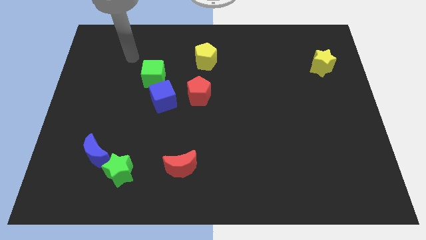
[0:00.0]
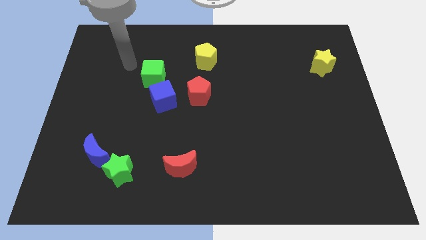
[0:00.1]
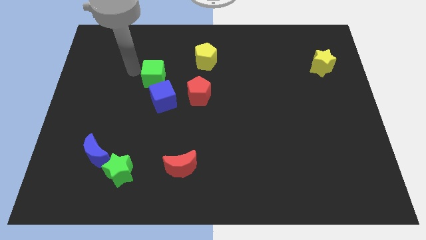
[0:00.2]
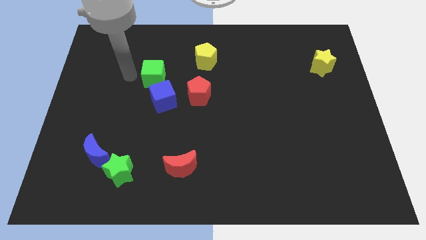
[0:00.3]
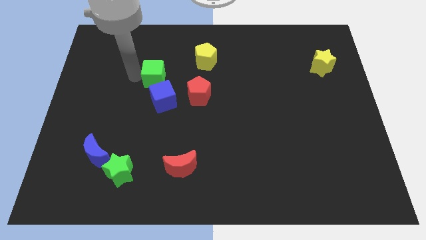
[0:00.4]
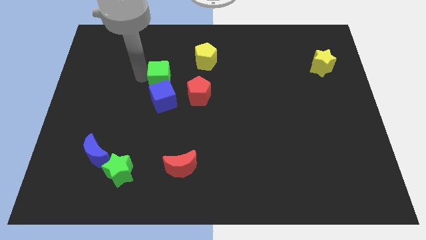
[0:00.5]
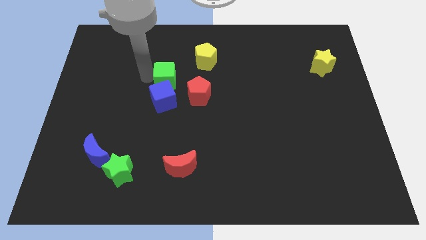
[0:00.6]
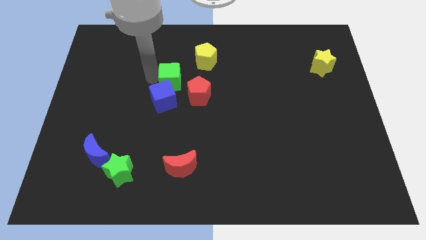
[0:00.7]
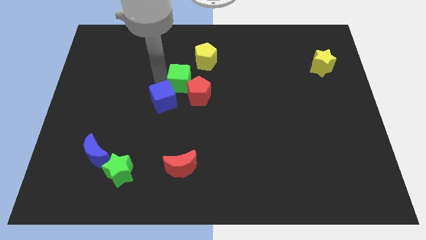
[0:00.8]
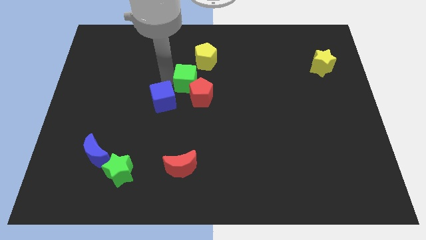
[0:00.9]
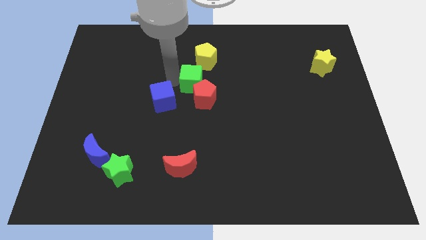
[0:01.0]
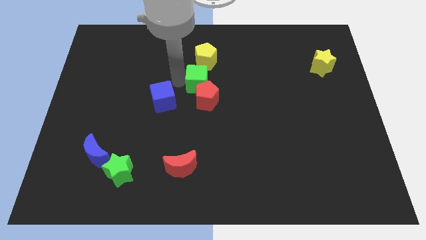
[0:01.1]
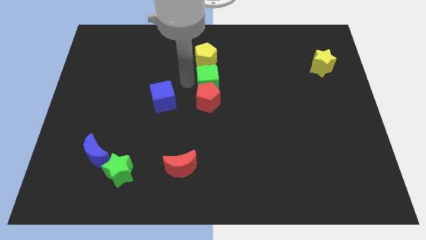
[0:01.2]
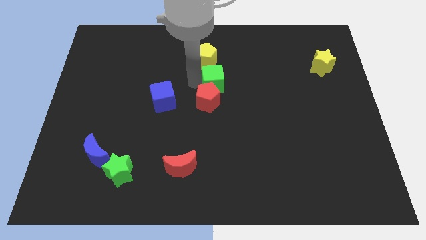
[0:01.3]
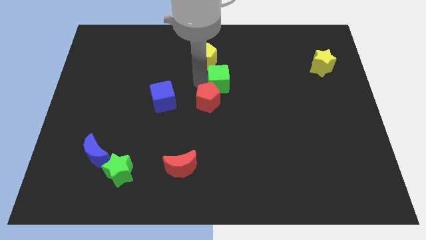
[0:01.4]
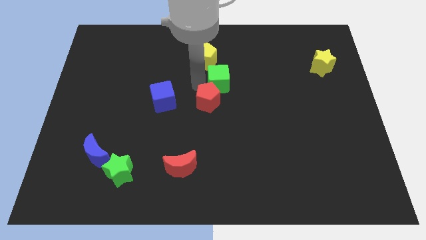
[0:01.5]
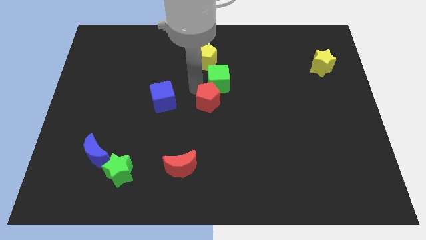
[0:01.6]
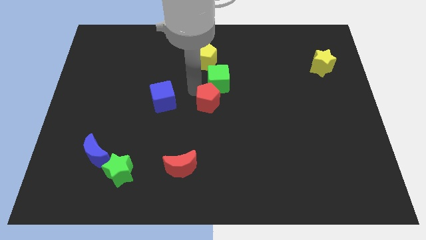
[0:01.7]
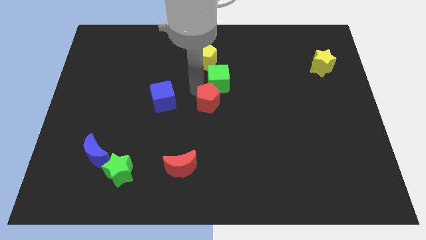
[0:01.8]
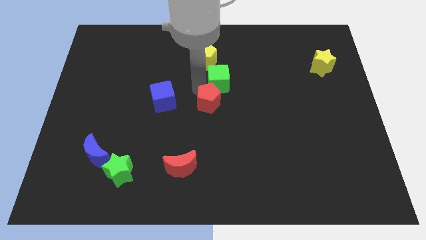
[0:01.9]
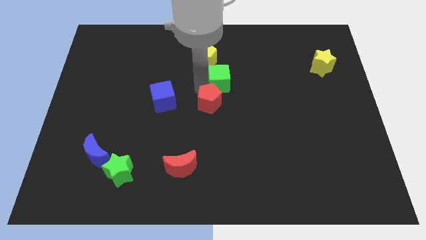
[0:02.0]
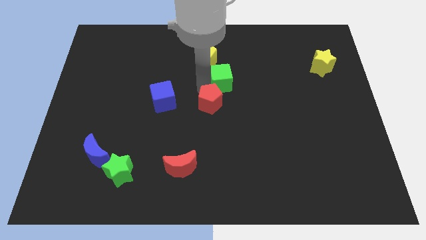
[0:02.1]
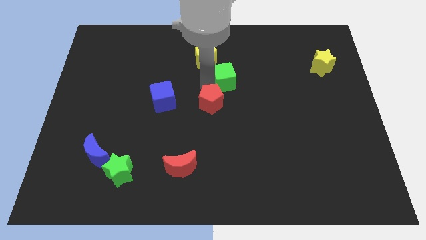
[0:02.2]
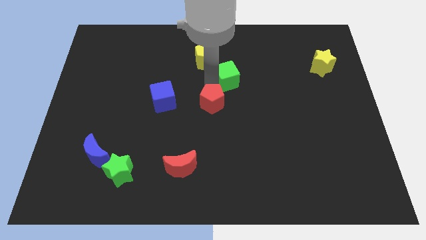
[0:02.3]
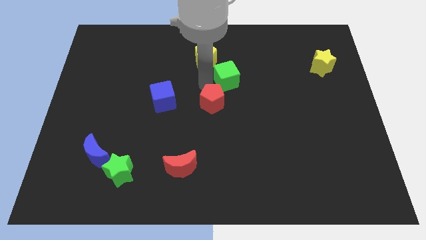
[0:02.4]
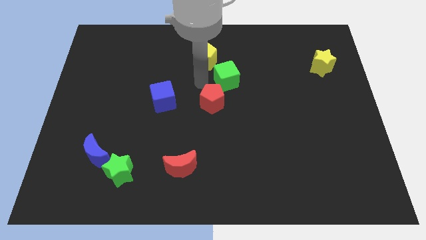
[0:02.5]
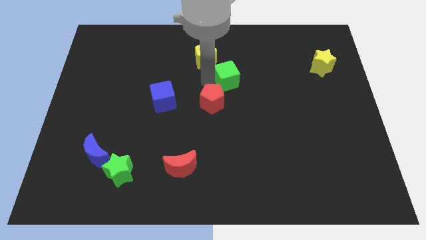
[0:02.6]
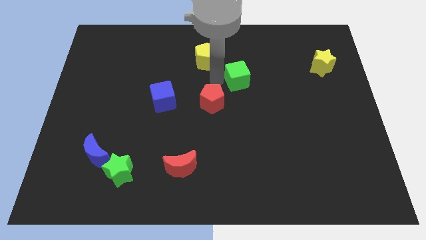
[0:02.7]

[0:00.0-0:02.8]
push the green cube right

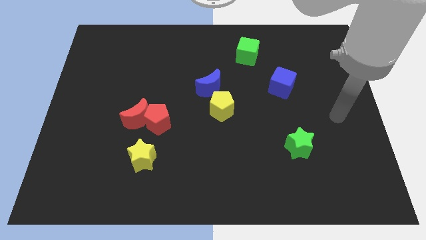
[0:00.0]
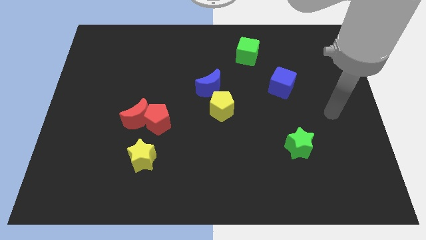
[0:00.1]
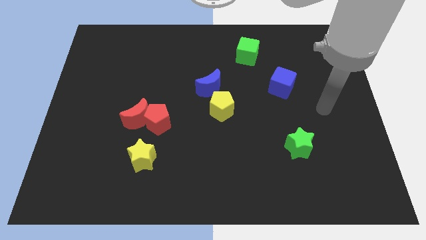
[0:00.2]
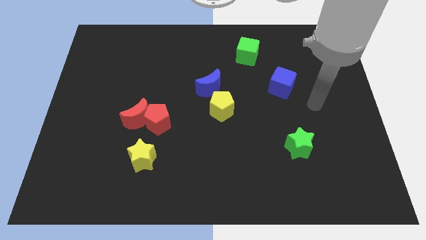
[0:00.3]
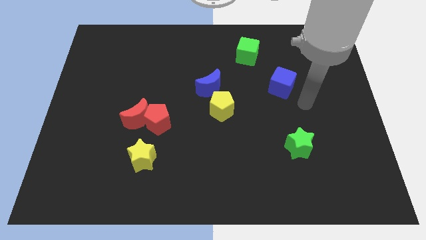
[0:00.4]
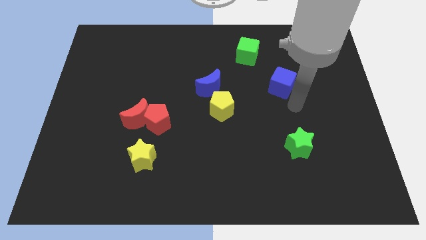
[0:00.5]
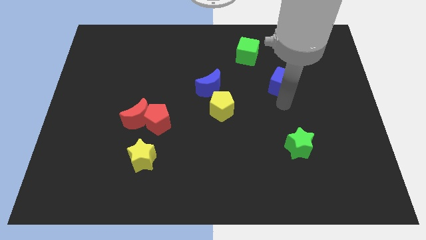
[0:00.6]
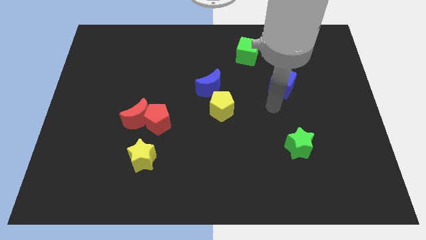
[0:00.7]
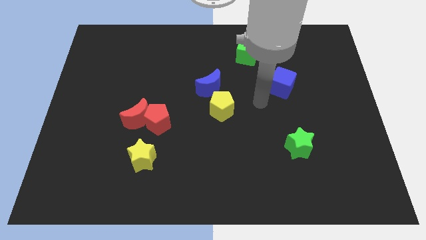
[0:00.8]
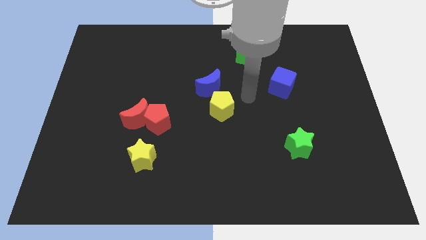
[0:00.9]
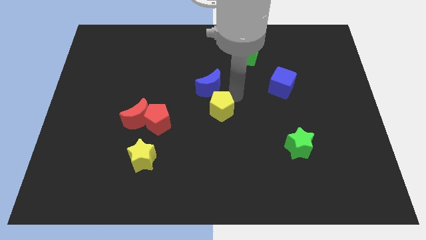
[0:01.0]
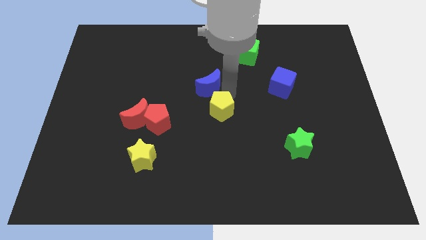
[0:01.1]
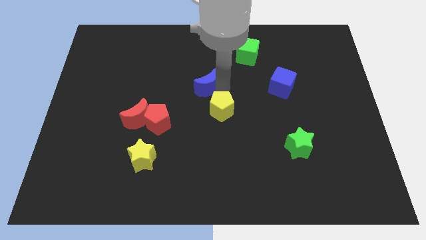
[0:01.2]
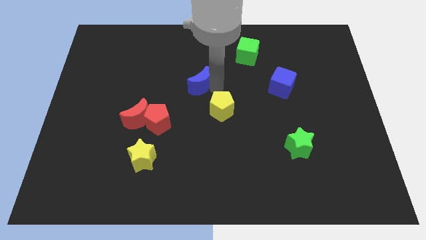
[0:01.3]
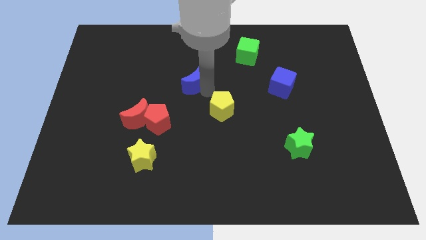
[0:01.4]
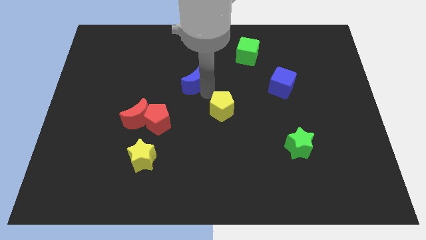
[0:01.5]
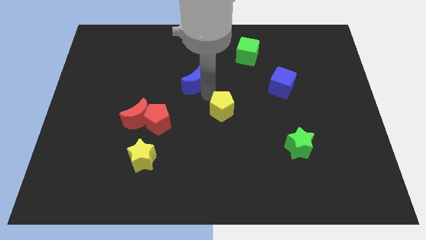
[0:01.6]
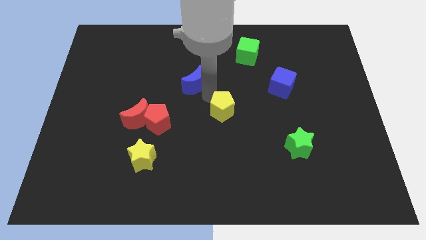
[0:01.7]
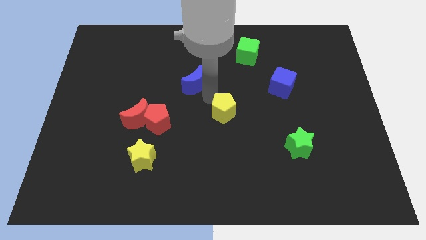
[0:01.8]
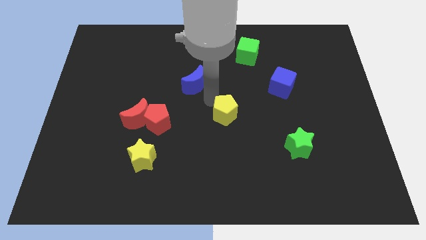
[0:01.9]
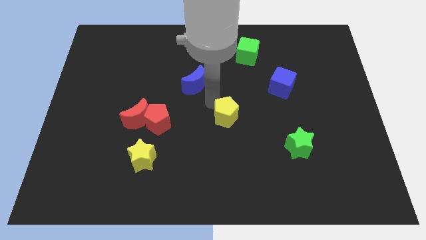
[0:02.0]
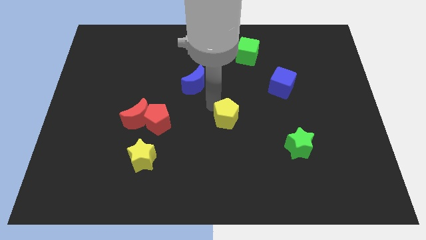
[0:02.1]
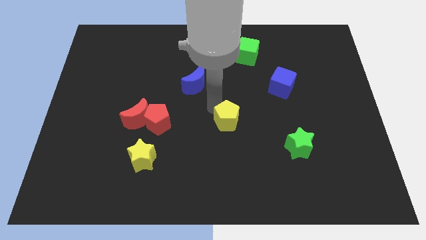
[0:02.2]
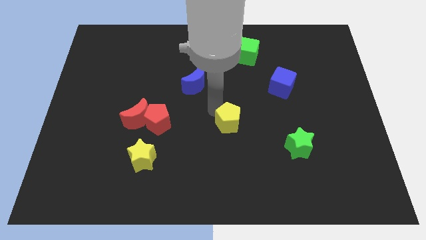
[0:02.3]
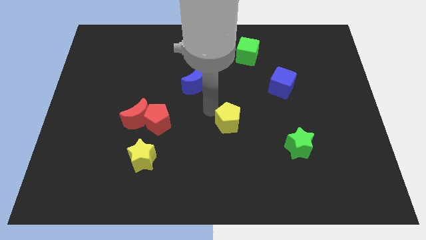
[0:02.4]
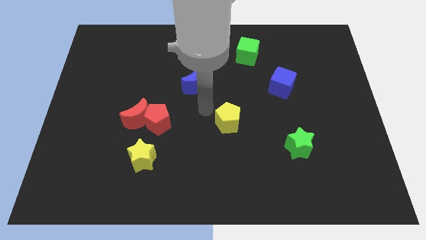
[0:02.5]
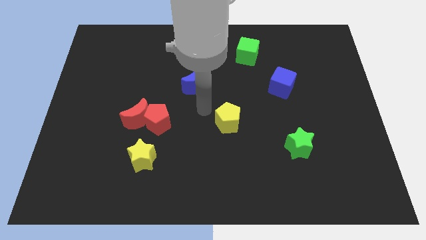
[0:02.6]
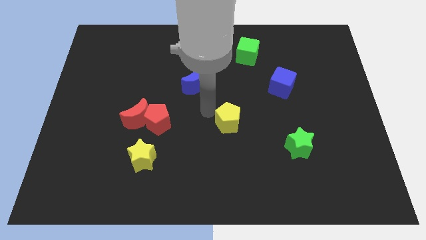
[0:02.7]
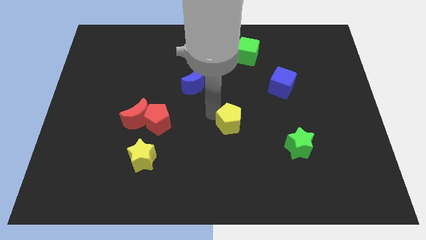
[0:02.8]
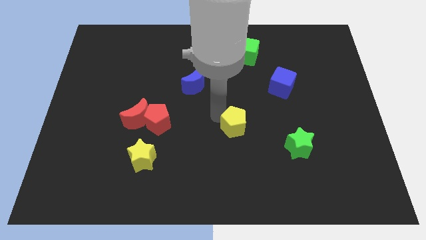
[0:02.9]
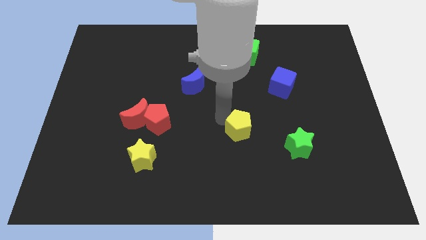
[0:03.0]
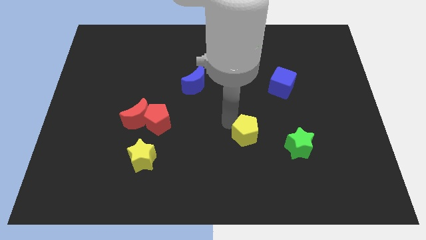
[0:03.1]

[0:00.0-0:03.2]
slightly slide the yellow pentagon down and then to the right

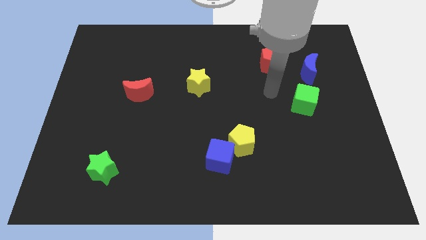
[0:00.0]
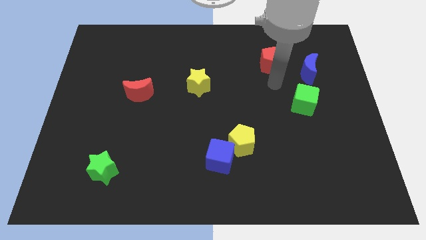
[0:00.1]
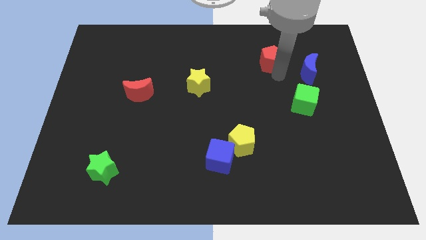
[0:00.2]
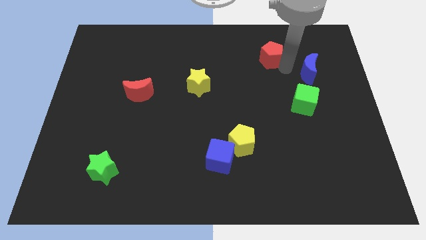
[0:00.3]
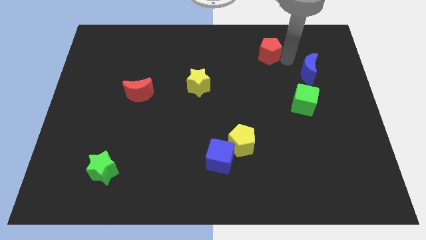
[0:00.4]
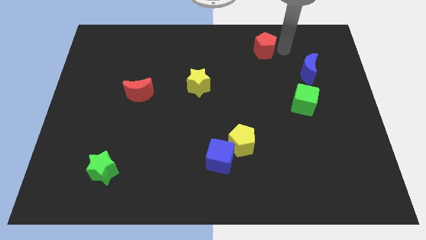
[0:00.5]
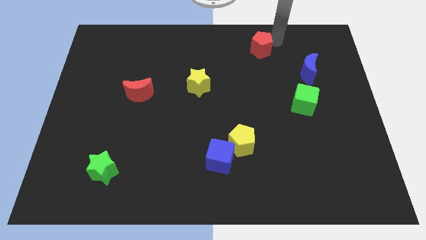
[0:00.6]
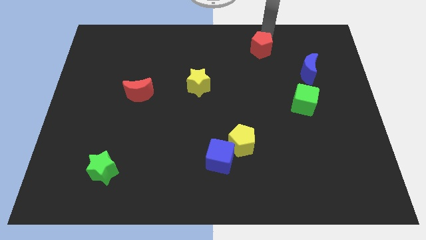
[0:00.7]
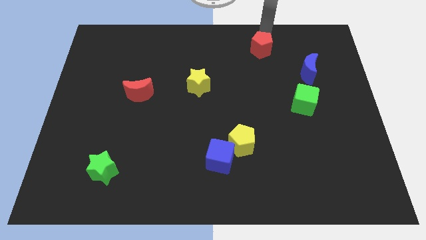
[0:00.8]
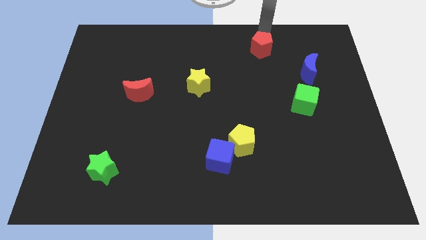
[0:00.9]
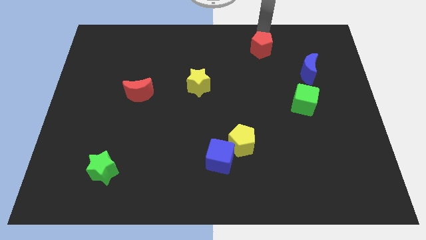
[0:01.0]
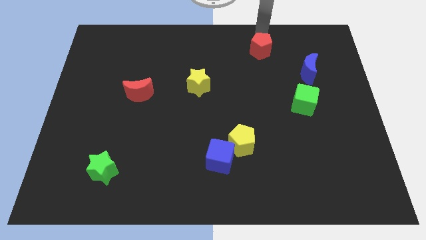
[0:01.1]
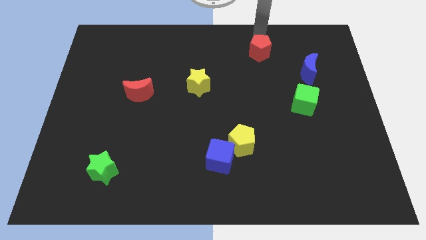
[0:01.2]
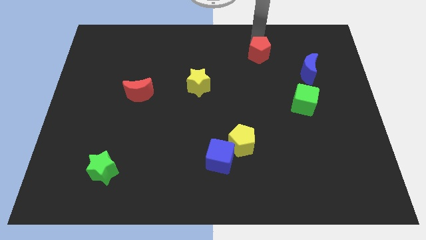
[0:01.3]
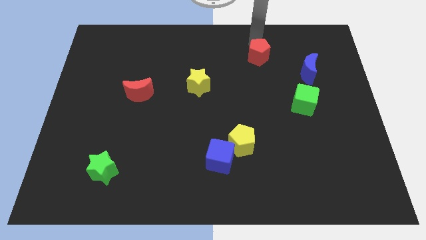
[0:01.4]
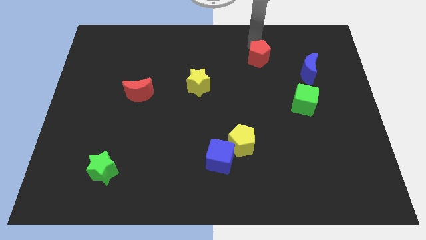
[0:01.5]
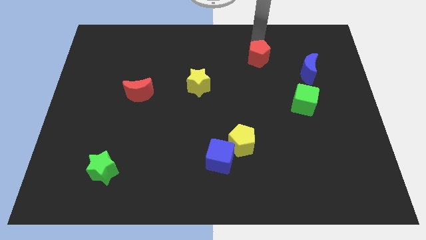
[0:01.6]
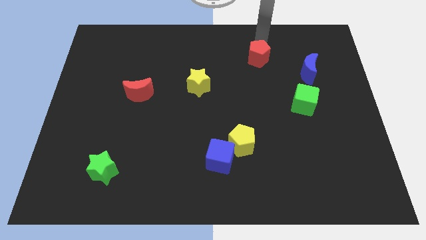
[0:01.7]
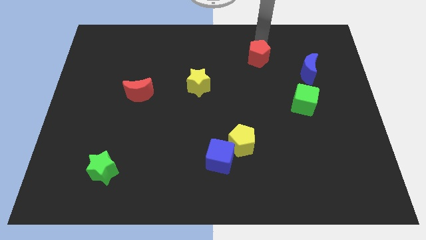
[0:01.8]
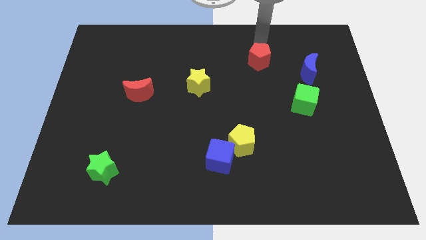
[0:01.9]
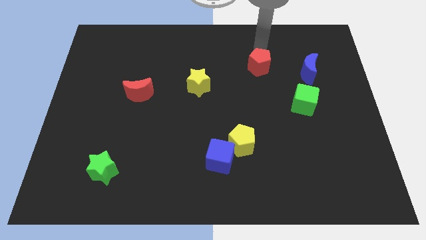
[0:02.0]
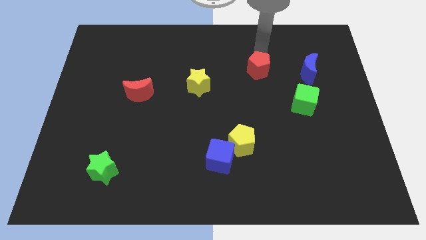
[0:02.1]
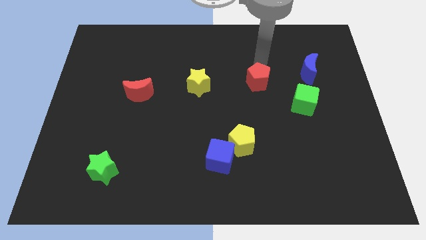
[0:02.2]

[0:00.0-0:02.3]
move the red pentagon down and then left a bit
